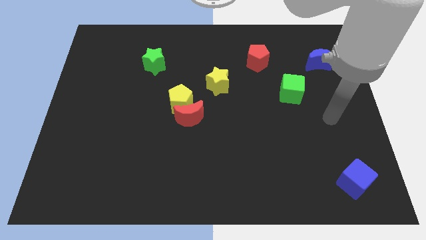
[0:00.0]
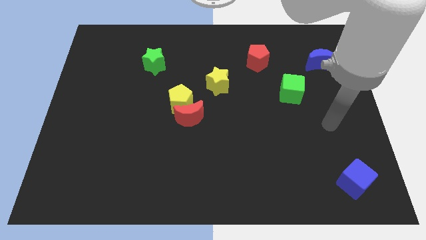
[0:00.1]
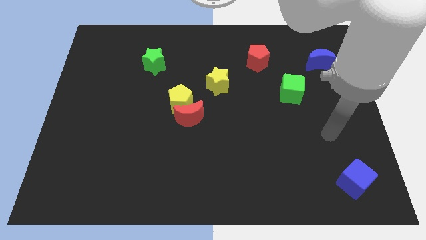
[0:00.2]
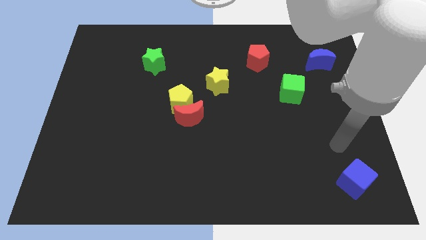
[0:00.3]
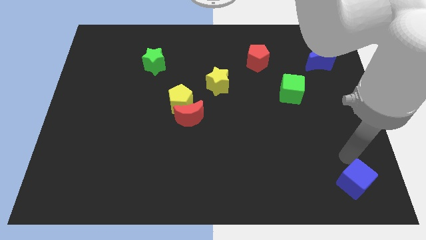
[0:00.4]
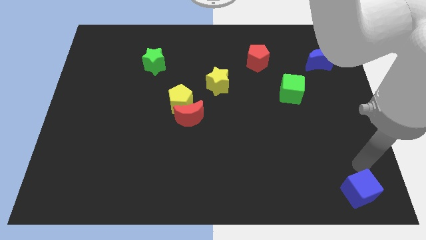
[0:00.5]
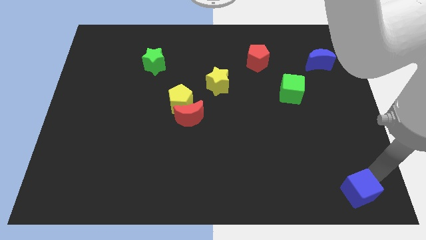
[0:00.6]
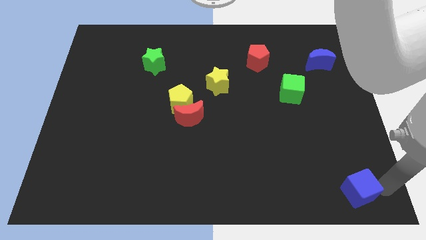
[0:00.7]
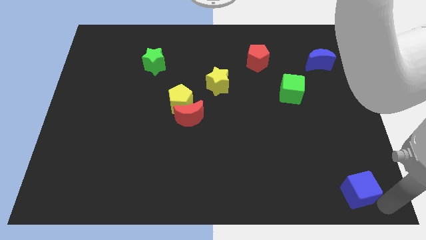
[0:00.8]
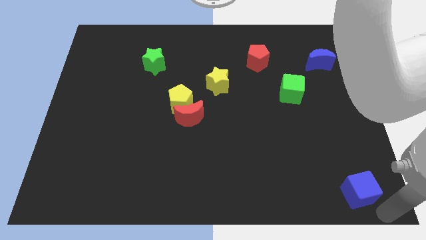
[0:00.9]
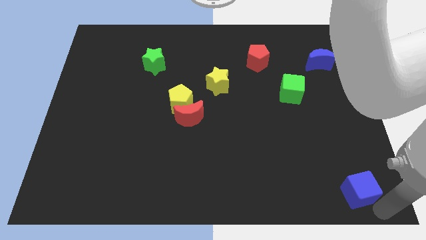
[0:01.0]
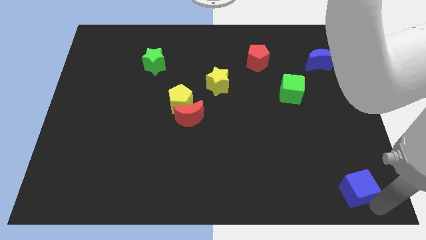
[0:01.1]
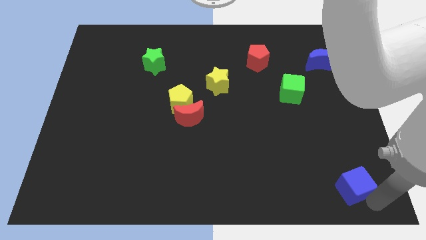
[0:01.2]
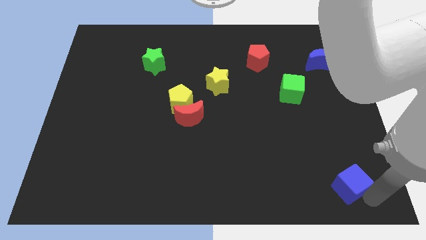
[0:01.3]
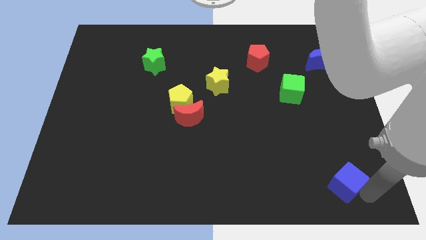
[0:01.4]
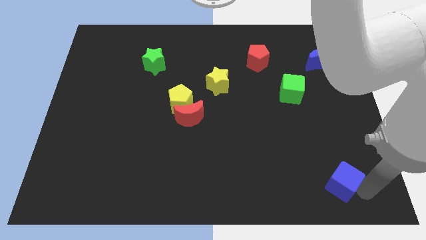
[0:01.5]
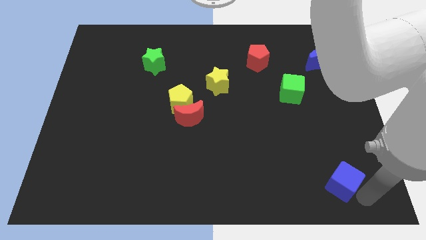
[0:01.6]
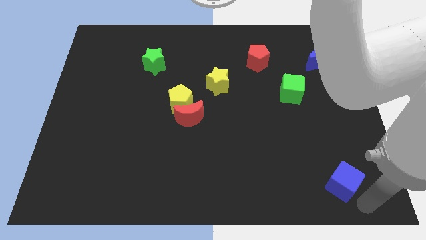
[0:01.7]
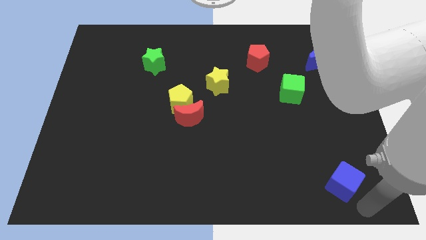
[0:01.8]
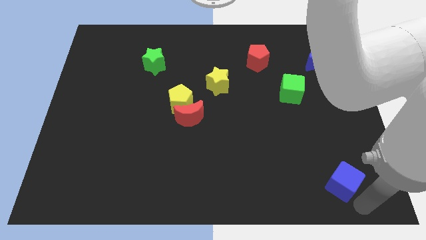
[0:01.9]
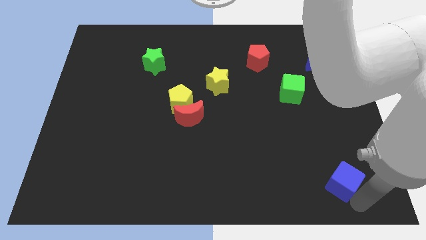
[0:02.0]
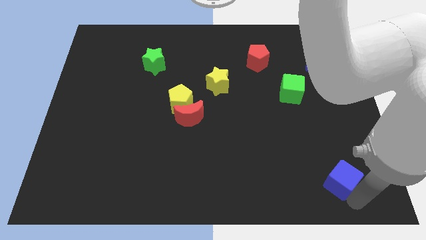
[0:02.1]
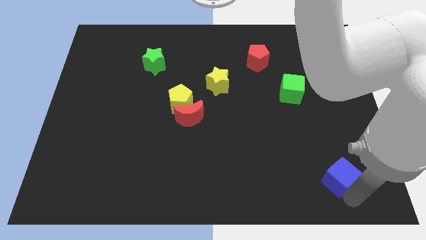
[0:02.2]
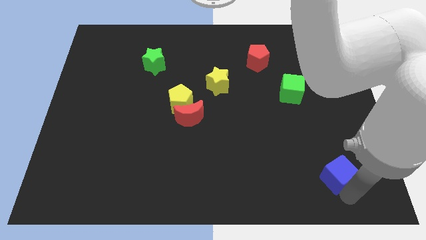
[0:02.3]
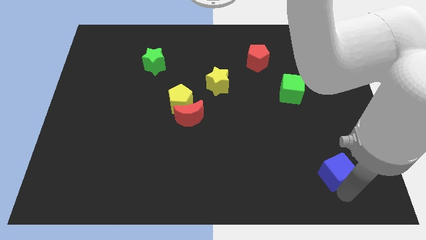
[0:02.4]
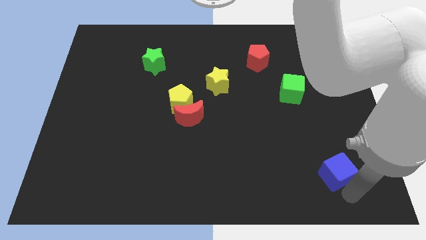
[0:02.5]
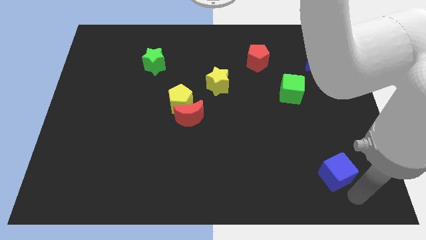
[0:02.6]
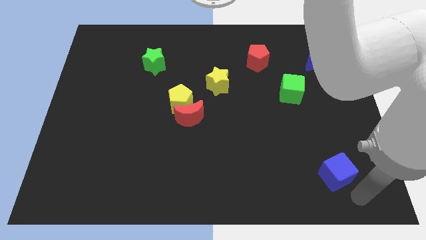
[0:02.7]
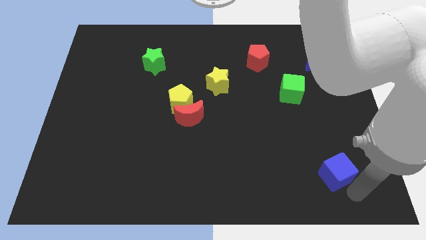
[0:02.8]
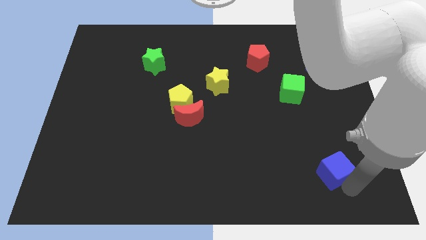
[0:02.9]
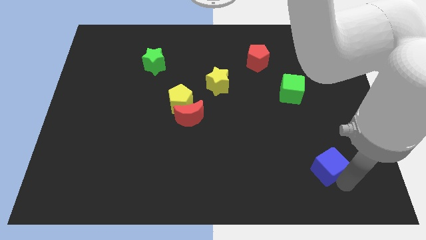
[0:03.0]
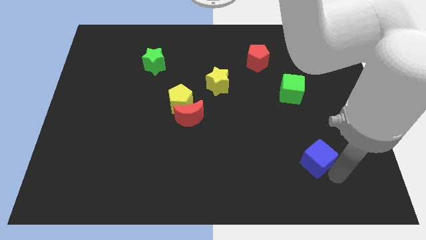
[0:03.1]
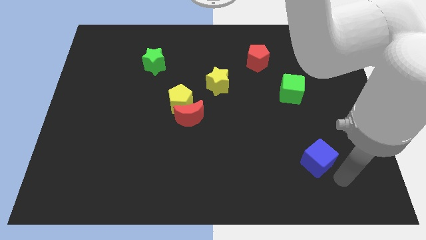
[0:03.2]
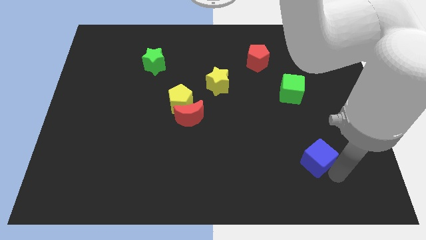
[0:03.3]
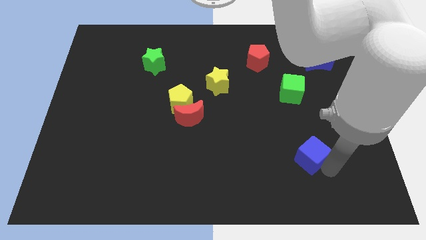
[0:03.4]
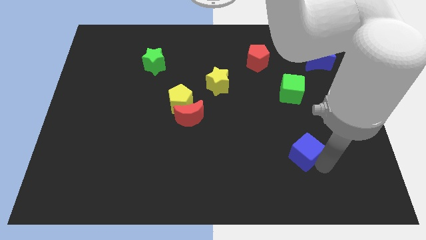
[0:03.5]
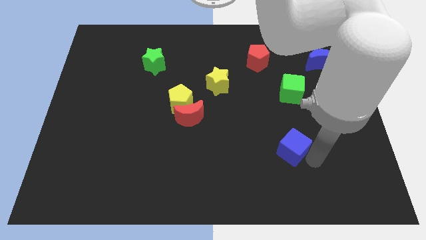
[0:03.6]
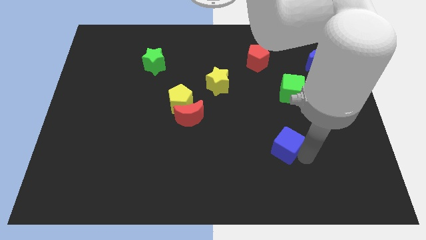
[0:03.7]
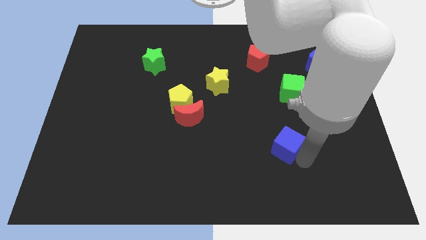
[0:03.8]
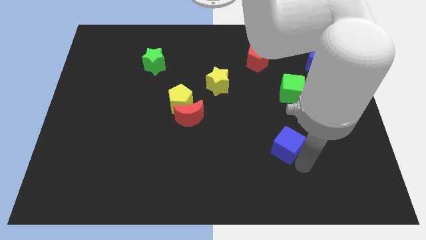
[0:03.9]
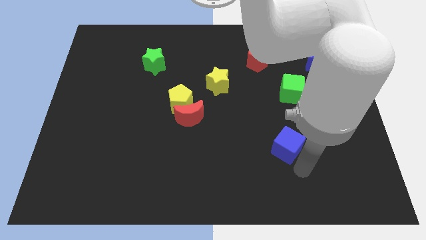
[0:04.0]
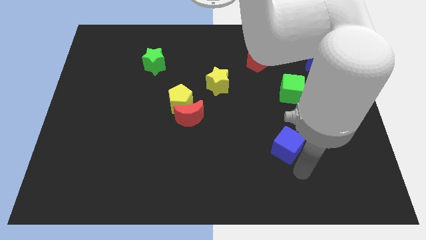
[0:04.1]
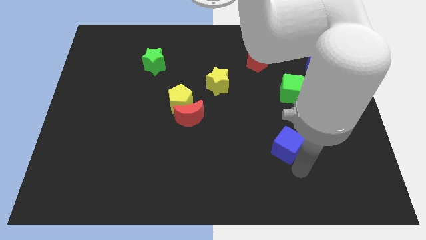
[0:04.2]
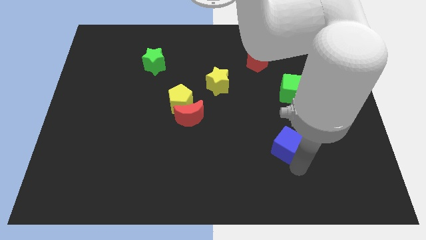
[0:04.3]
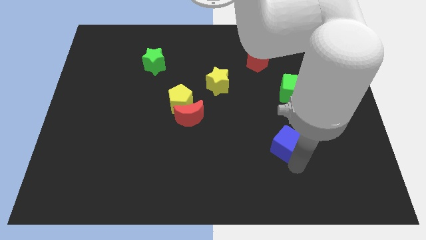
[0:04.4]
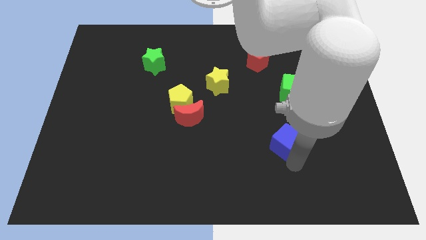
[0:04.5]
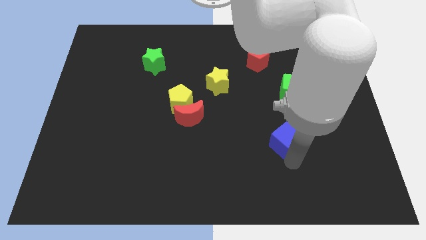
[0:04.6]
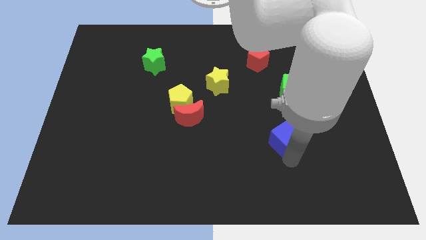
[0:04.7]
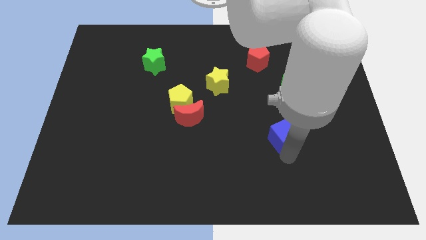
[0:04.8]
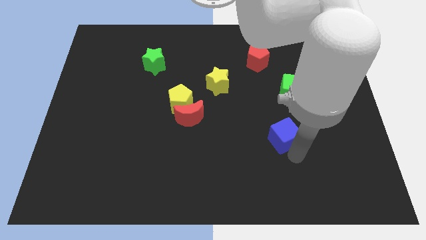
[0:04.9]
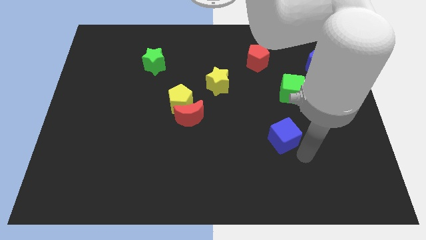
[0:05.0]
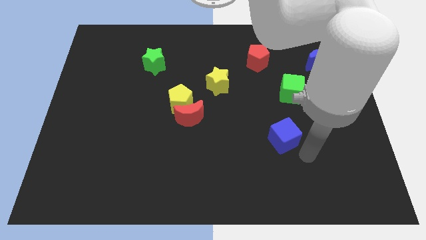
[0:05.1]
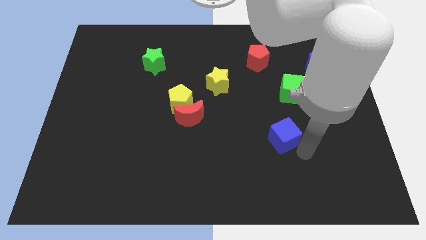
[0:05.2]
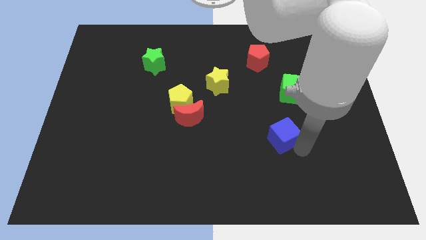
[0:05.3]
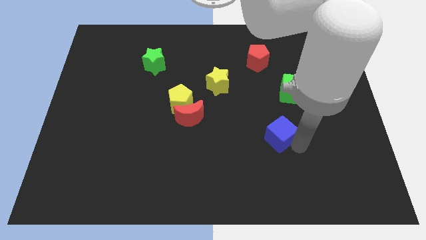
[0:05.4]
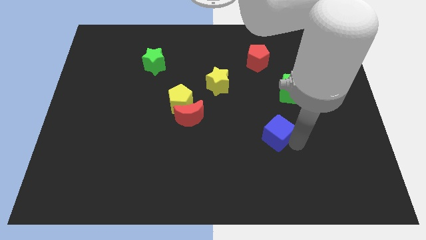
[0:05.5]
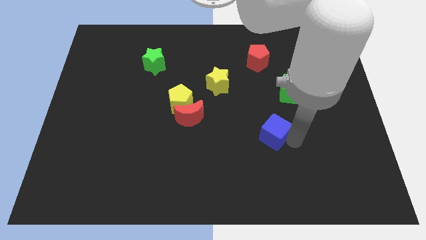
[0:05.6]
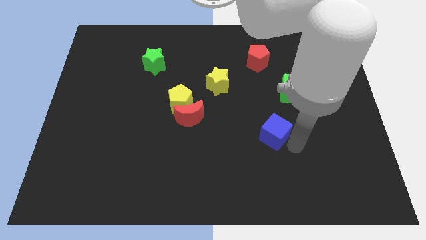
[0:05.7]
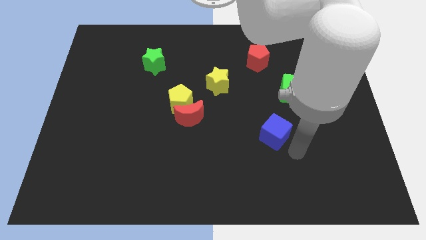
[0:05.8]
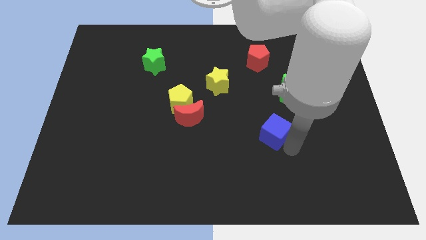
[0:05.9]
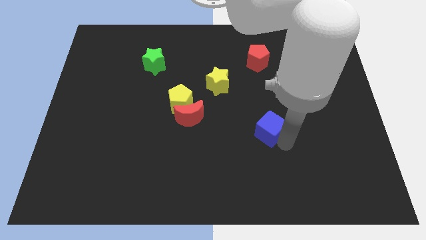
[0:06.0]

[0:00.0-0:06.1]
push the blue cube up and to the left

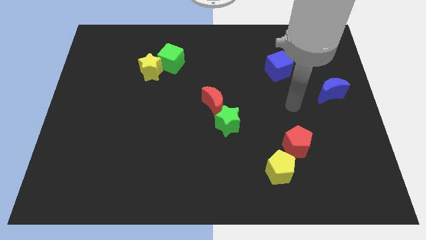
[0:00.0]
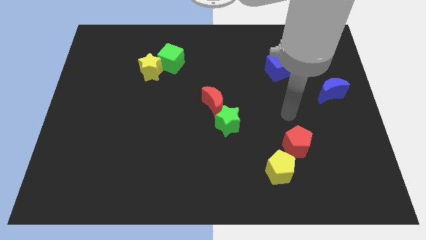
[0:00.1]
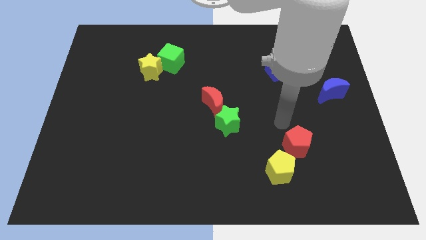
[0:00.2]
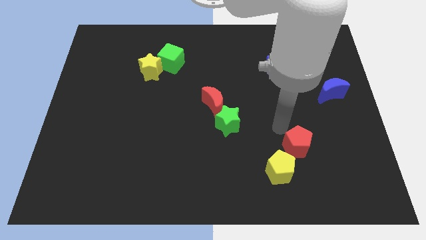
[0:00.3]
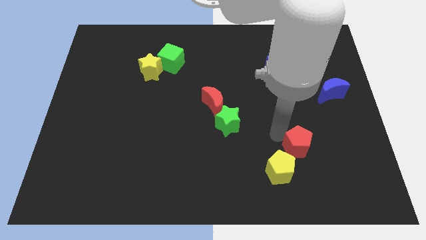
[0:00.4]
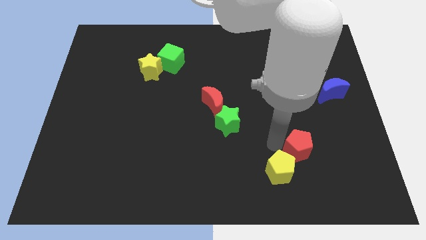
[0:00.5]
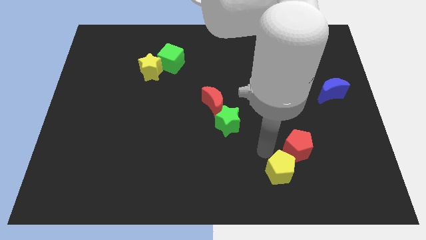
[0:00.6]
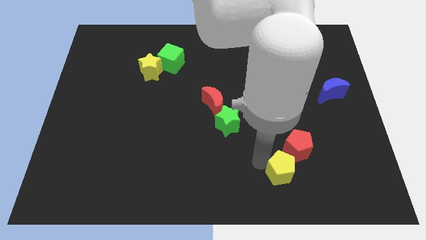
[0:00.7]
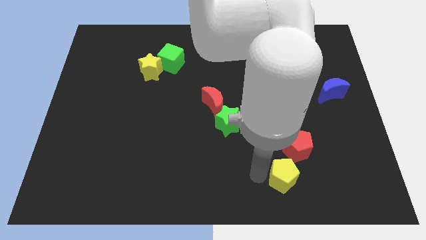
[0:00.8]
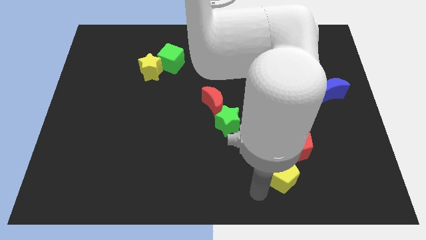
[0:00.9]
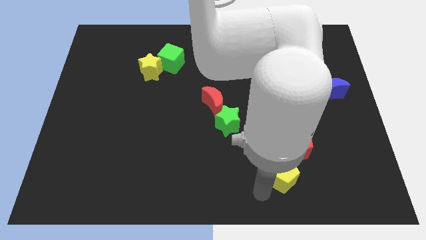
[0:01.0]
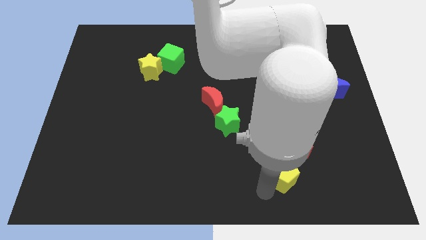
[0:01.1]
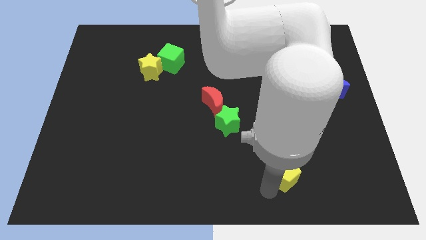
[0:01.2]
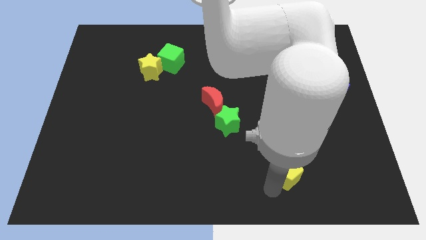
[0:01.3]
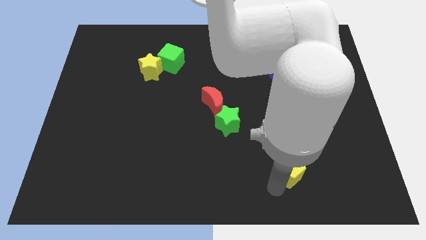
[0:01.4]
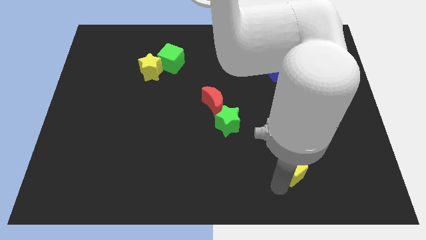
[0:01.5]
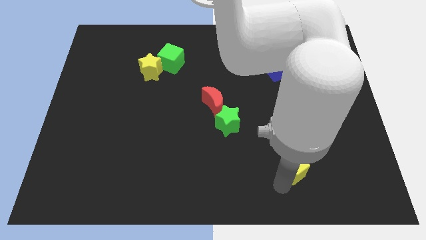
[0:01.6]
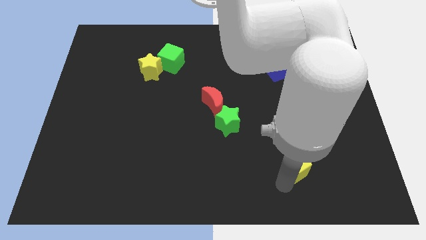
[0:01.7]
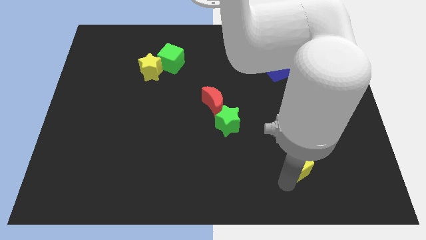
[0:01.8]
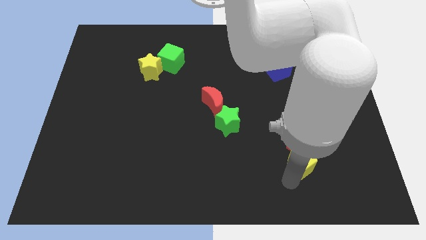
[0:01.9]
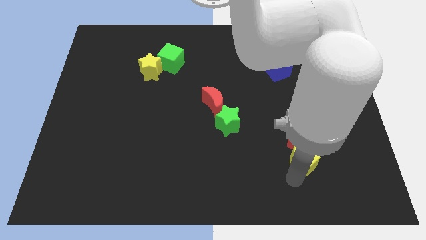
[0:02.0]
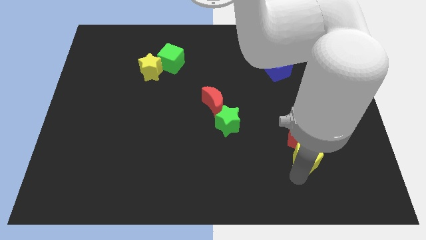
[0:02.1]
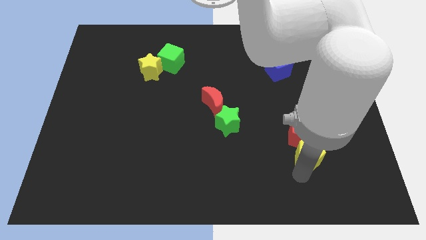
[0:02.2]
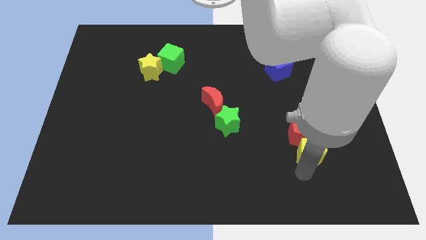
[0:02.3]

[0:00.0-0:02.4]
move the yellow pentagon somewhat up and right diagonally
